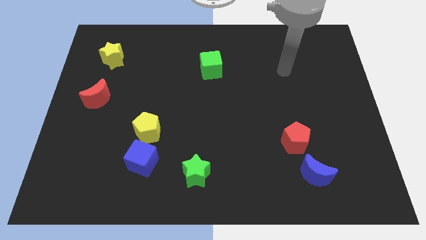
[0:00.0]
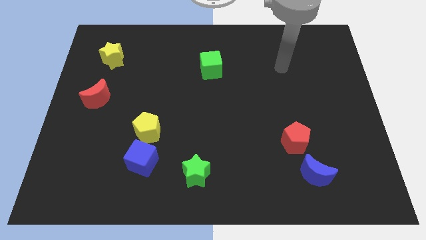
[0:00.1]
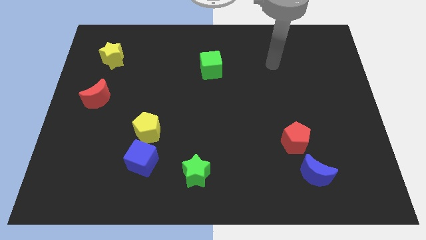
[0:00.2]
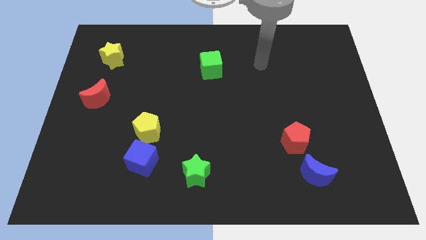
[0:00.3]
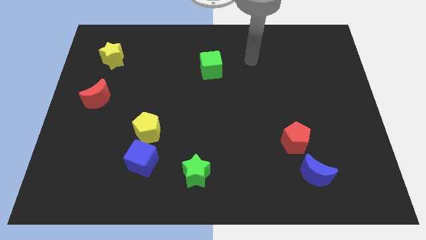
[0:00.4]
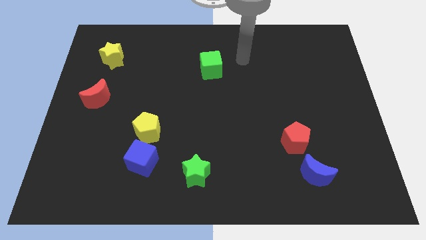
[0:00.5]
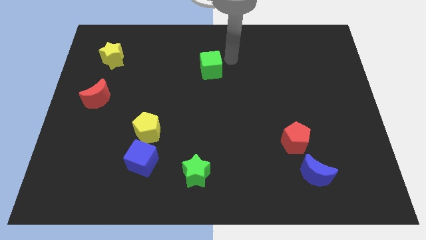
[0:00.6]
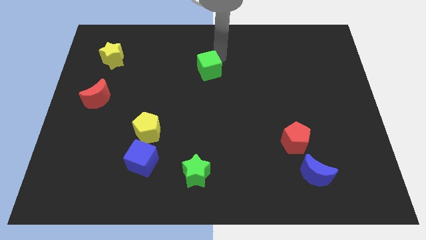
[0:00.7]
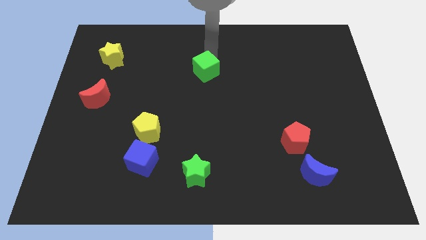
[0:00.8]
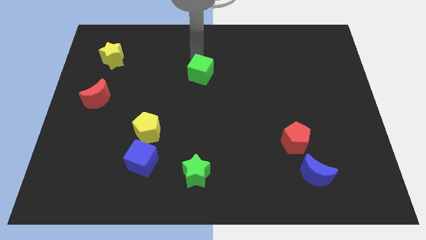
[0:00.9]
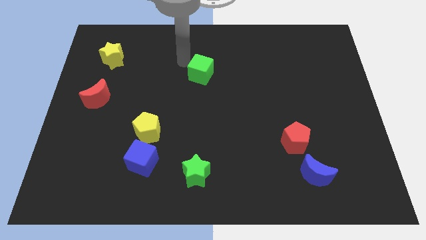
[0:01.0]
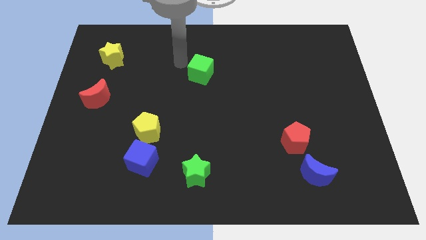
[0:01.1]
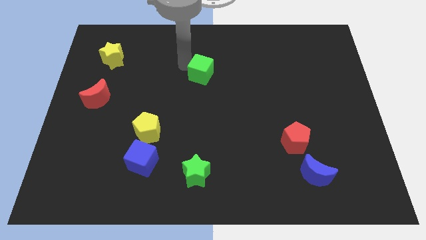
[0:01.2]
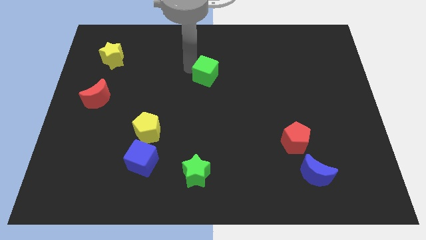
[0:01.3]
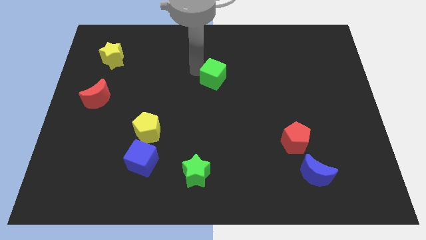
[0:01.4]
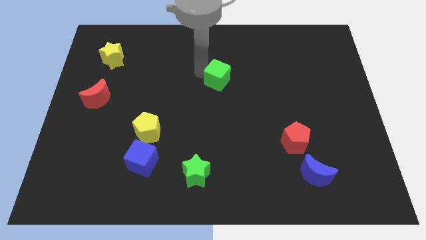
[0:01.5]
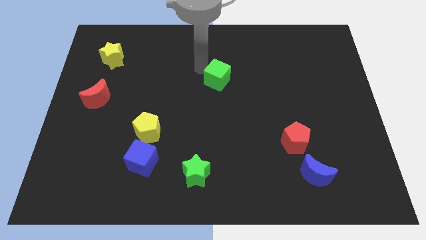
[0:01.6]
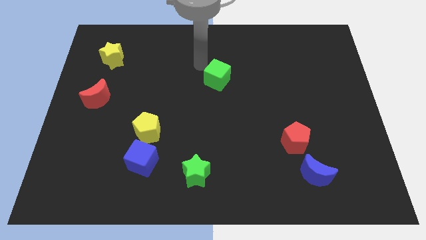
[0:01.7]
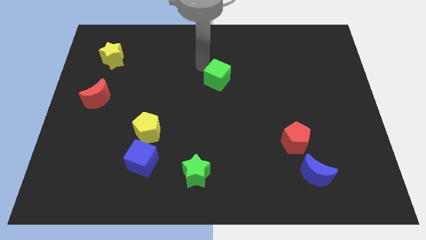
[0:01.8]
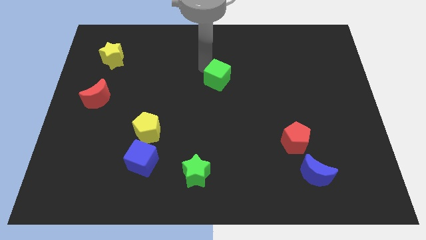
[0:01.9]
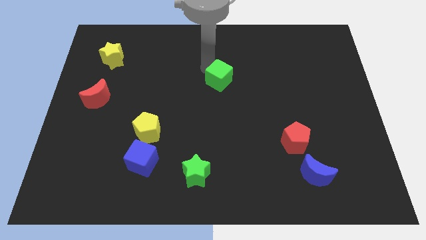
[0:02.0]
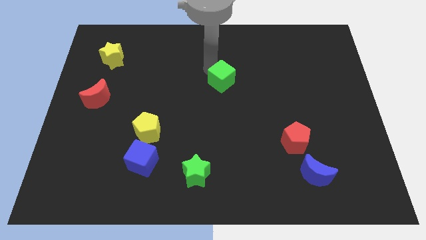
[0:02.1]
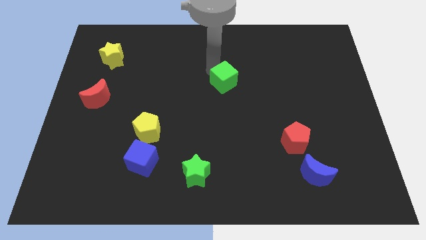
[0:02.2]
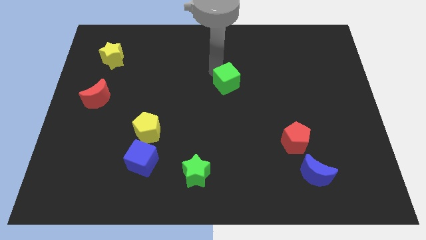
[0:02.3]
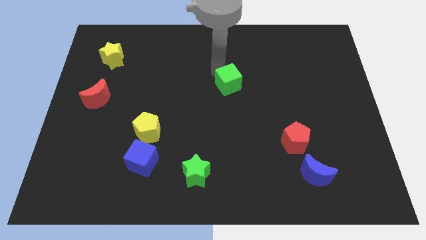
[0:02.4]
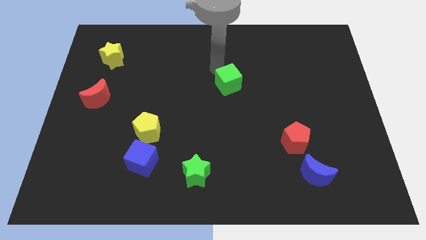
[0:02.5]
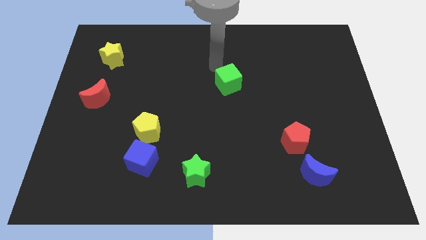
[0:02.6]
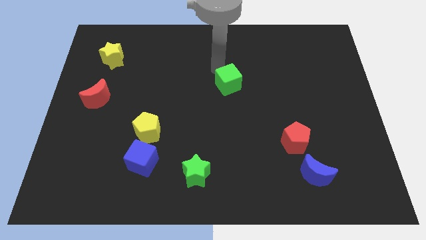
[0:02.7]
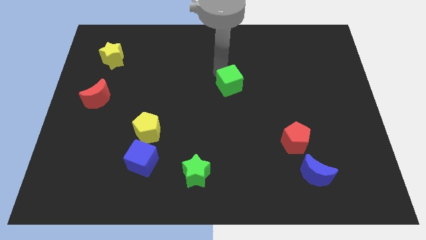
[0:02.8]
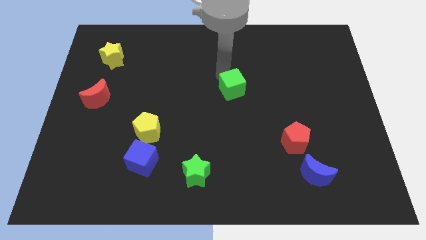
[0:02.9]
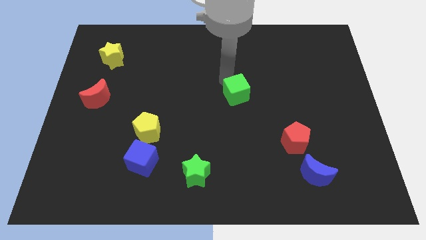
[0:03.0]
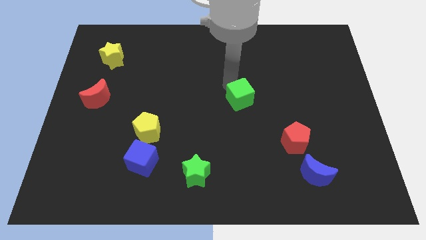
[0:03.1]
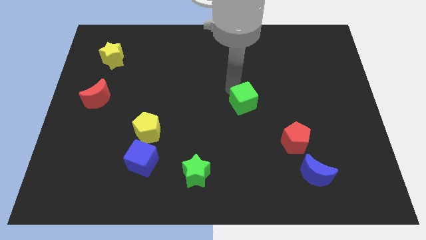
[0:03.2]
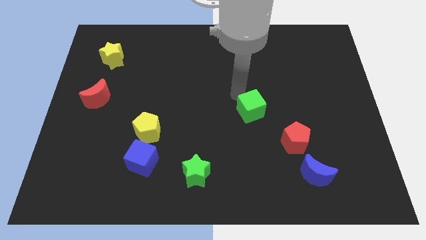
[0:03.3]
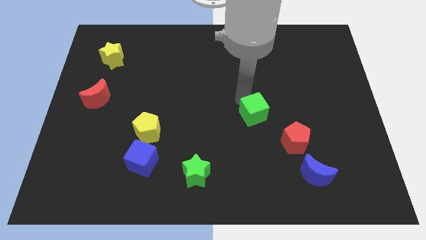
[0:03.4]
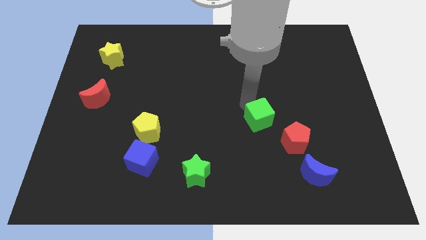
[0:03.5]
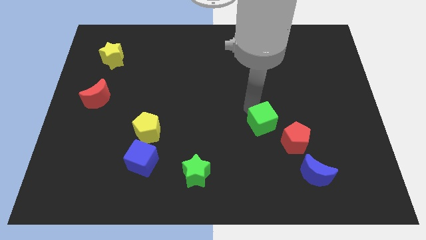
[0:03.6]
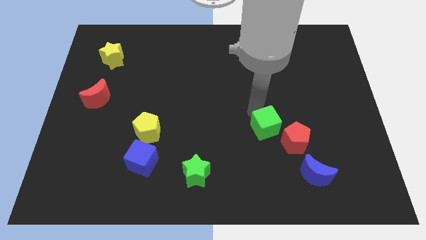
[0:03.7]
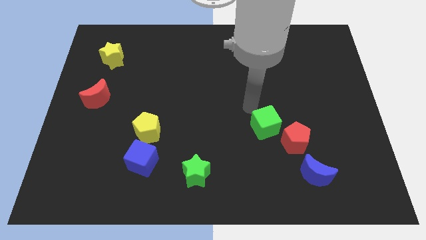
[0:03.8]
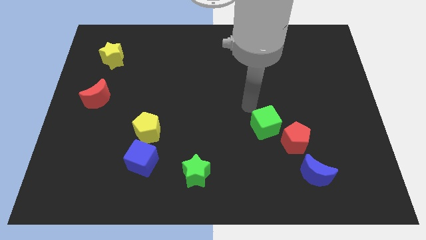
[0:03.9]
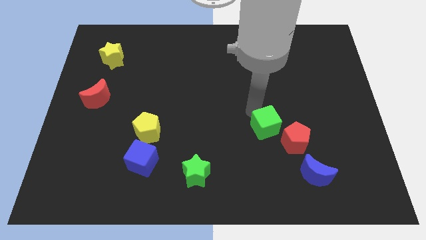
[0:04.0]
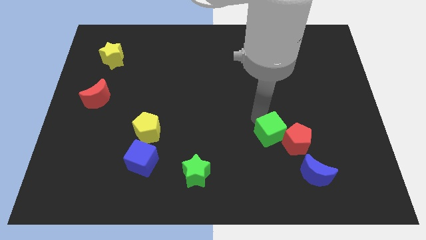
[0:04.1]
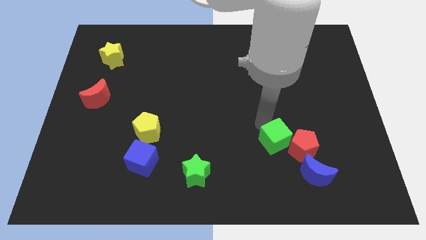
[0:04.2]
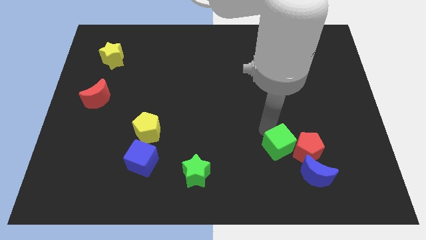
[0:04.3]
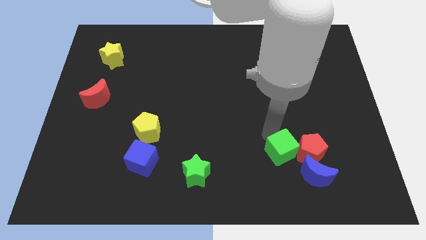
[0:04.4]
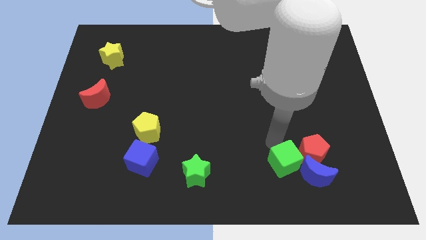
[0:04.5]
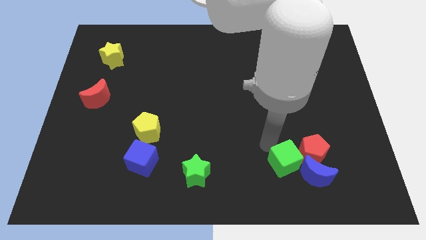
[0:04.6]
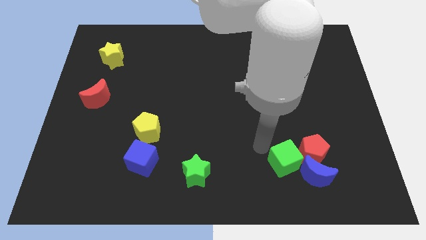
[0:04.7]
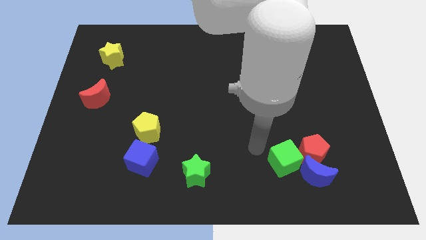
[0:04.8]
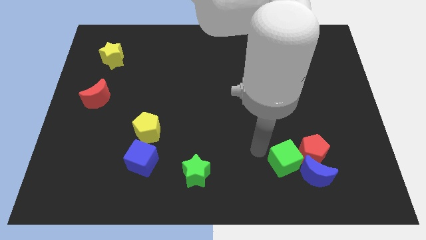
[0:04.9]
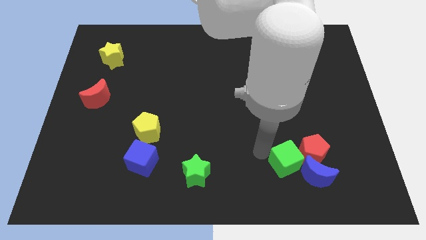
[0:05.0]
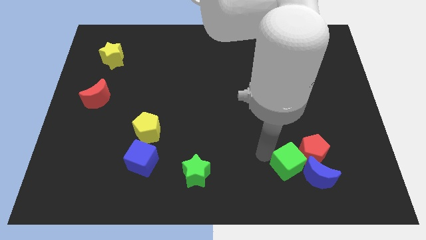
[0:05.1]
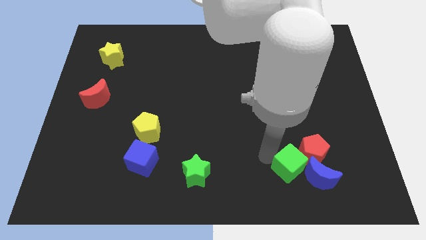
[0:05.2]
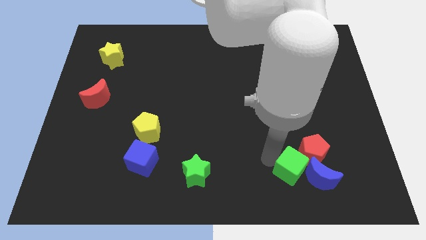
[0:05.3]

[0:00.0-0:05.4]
put the green cube close to the blue moon

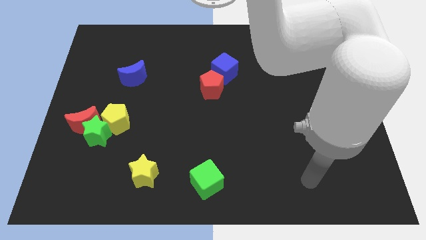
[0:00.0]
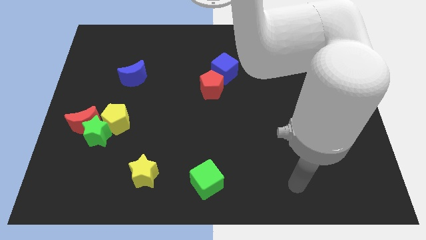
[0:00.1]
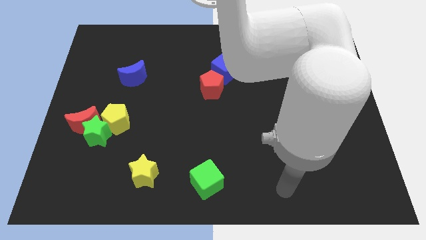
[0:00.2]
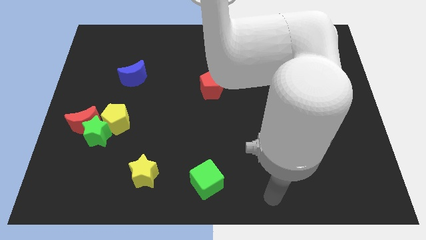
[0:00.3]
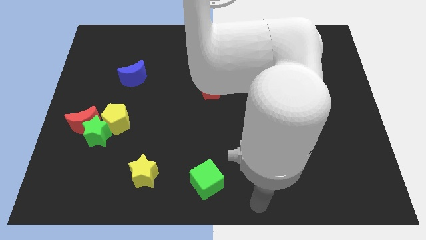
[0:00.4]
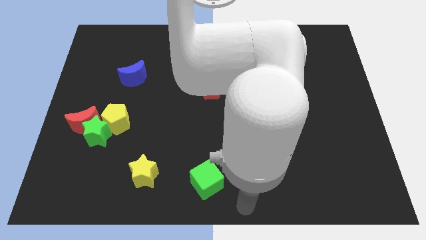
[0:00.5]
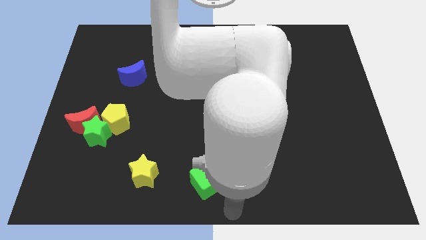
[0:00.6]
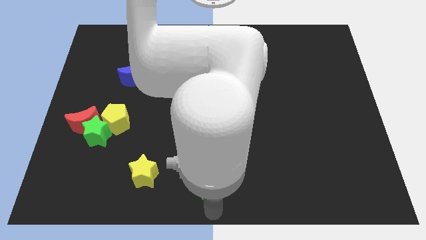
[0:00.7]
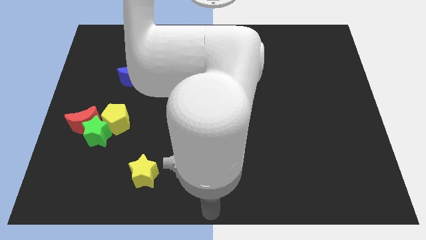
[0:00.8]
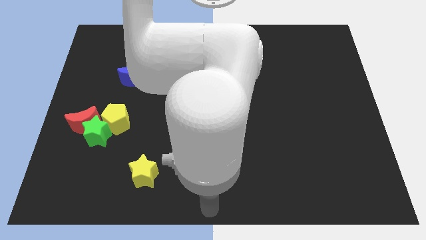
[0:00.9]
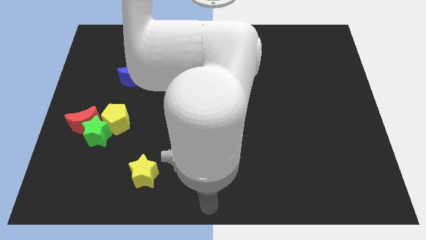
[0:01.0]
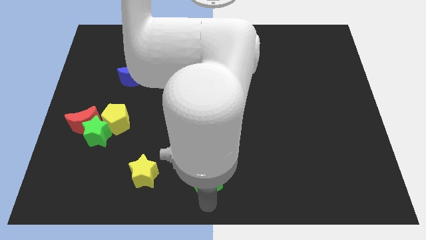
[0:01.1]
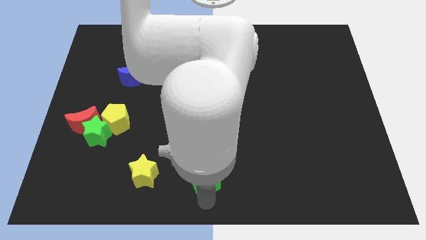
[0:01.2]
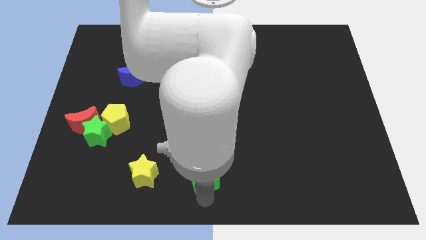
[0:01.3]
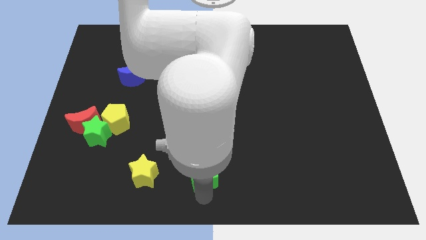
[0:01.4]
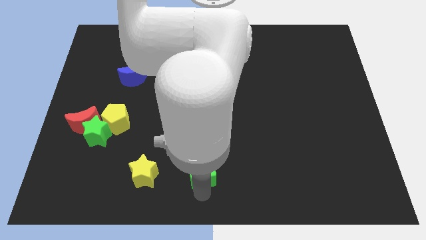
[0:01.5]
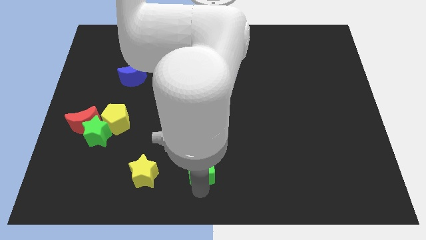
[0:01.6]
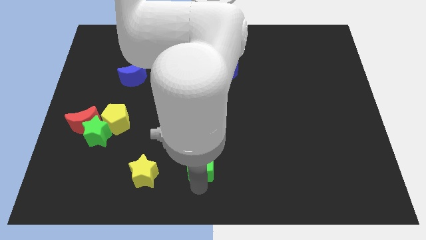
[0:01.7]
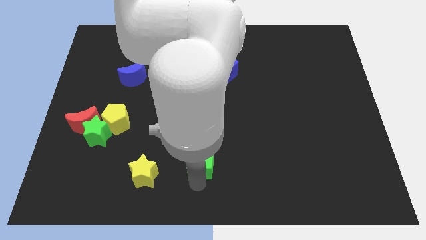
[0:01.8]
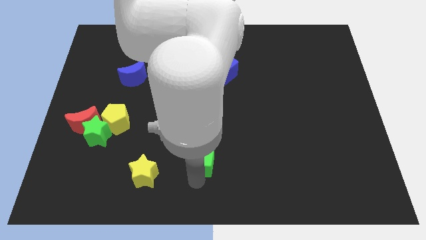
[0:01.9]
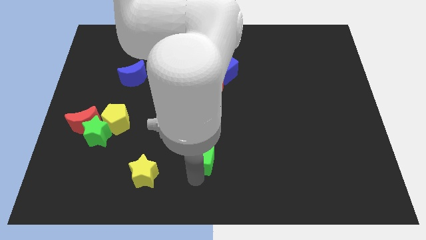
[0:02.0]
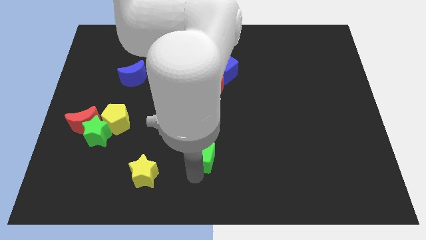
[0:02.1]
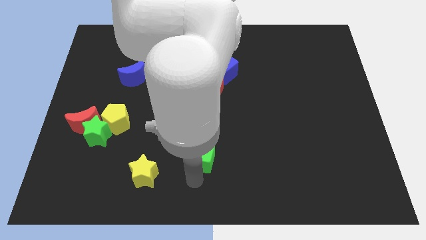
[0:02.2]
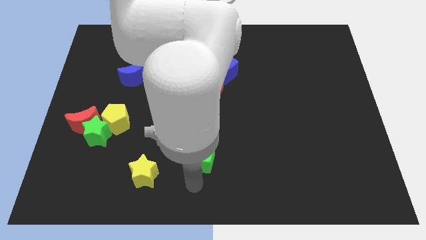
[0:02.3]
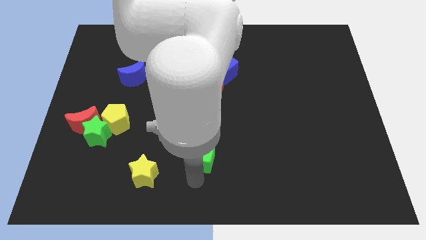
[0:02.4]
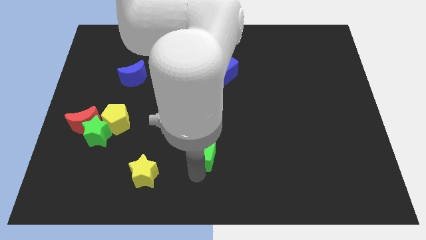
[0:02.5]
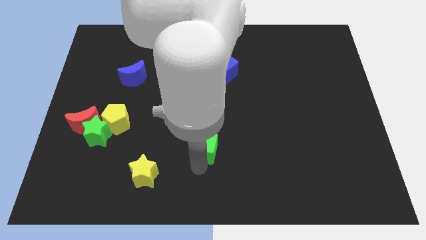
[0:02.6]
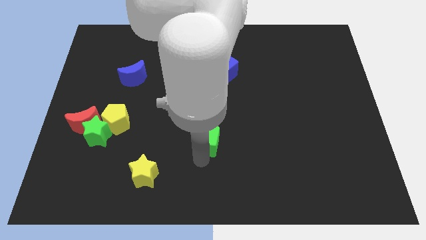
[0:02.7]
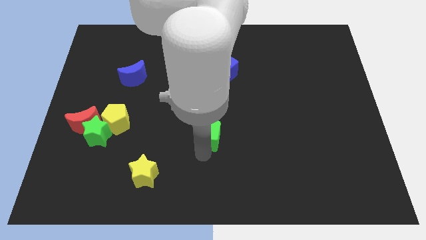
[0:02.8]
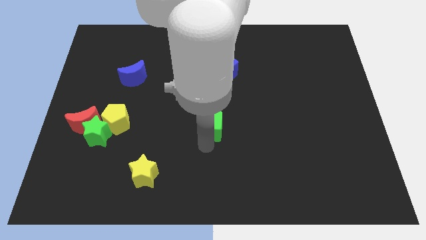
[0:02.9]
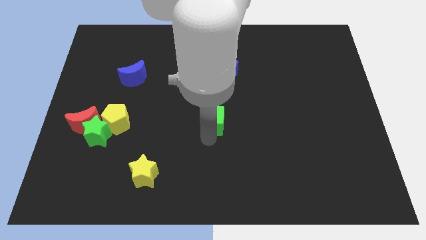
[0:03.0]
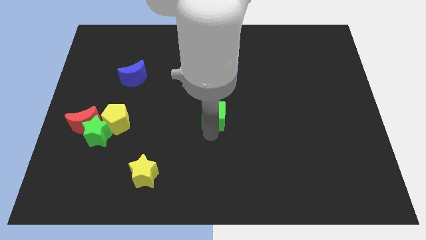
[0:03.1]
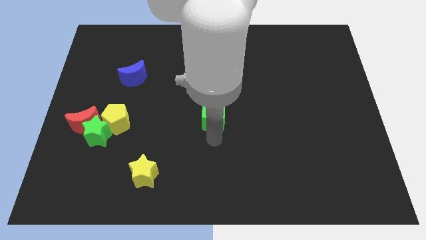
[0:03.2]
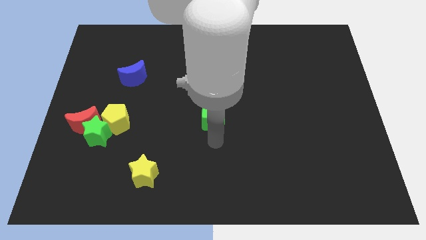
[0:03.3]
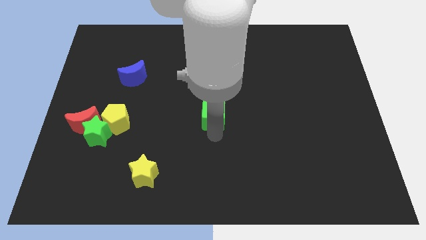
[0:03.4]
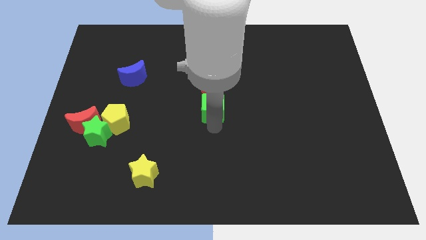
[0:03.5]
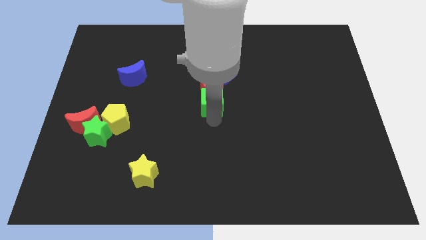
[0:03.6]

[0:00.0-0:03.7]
move the green cube close to the red pentagon
